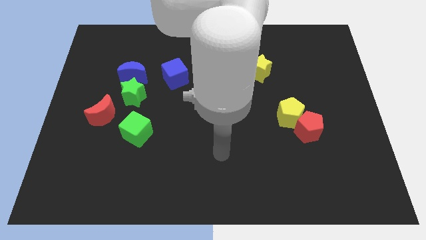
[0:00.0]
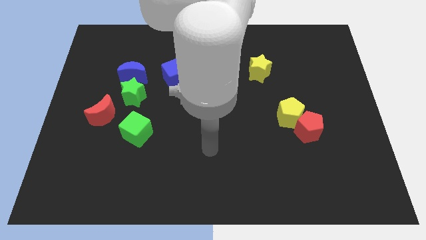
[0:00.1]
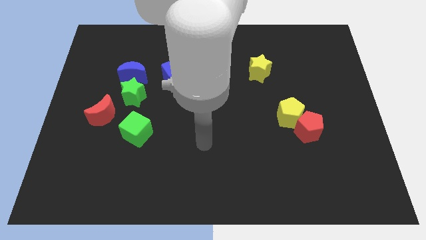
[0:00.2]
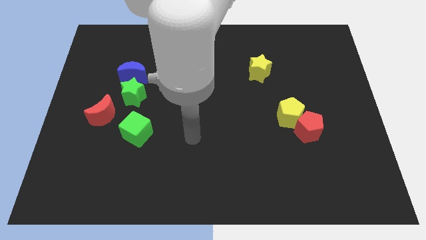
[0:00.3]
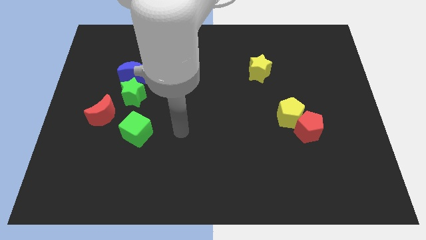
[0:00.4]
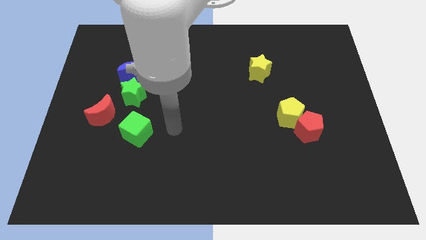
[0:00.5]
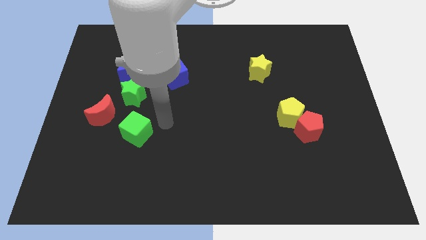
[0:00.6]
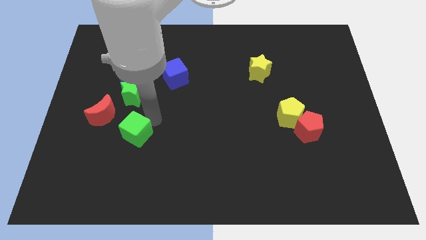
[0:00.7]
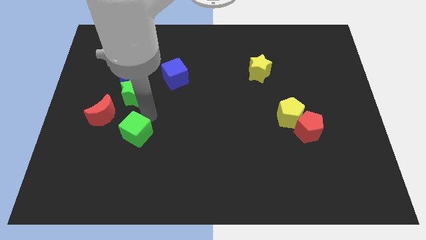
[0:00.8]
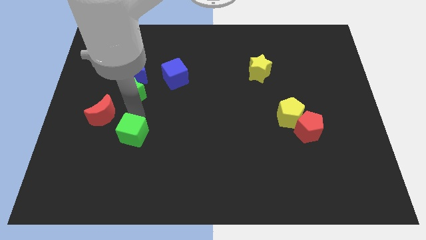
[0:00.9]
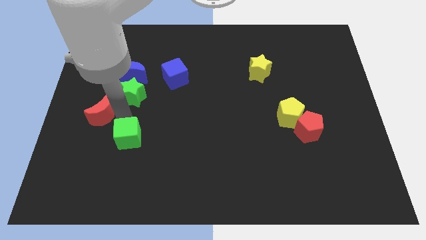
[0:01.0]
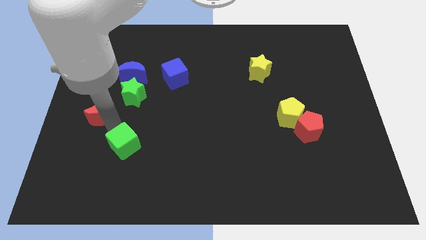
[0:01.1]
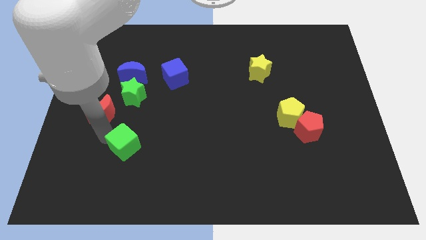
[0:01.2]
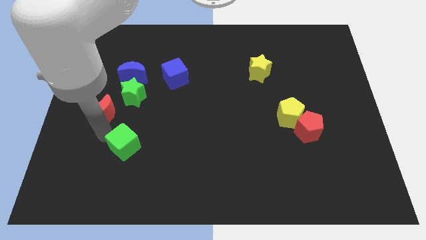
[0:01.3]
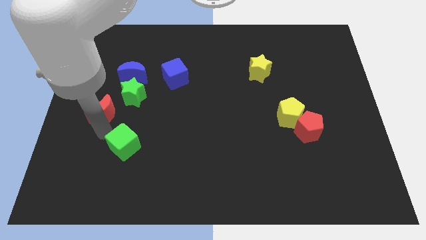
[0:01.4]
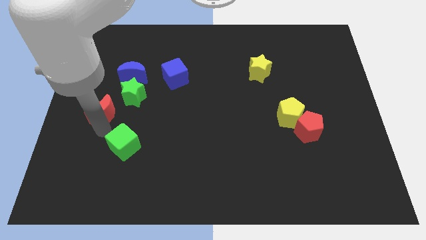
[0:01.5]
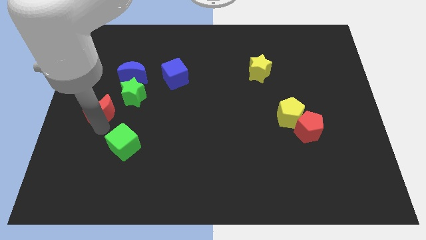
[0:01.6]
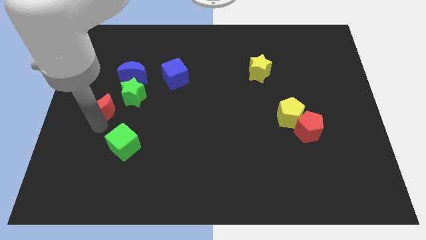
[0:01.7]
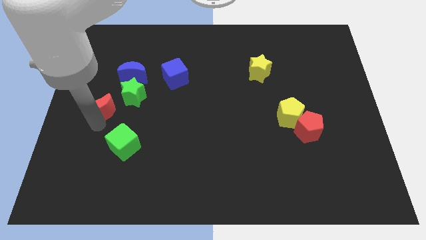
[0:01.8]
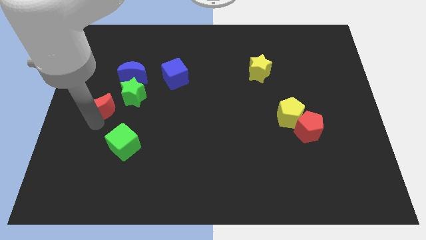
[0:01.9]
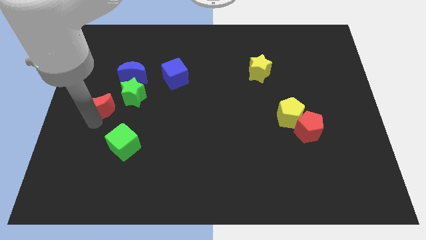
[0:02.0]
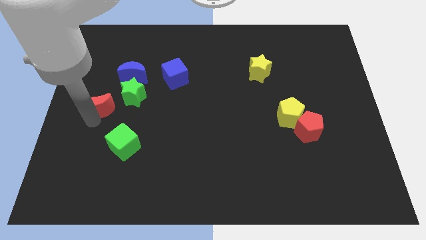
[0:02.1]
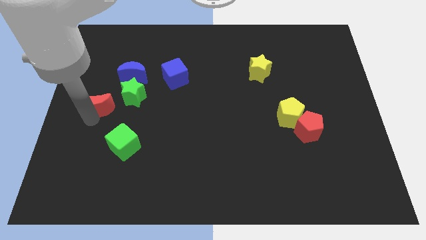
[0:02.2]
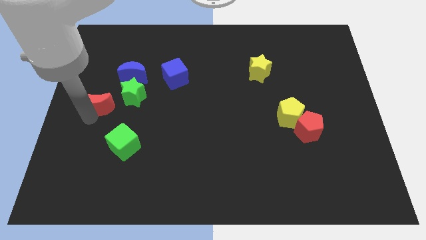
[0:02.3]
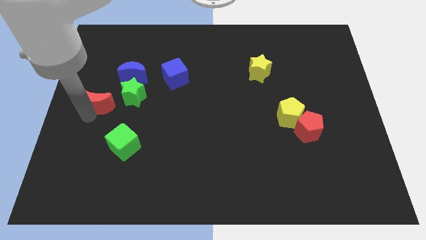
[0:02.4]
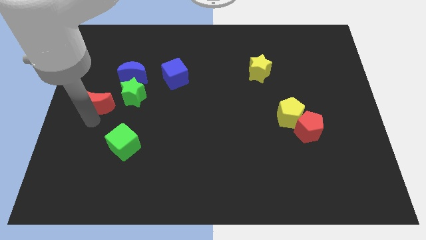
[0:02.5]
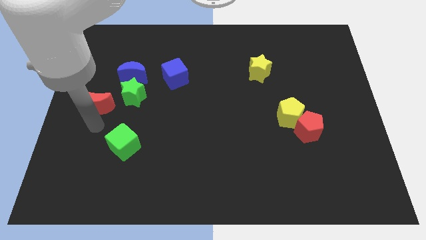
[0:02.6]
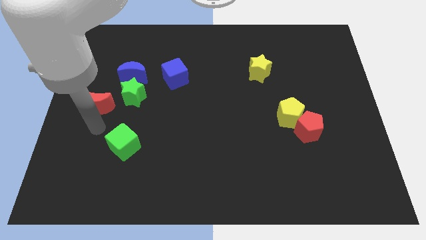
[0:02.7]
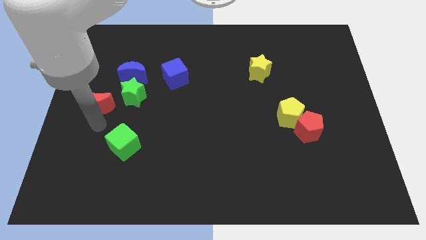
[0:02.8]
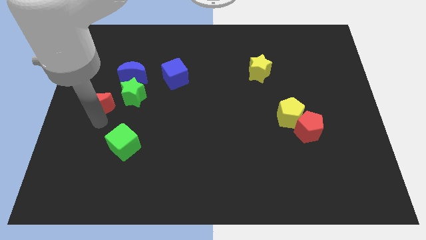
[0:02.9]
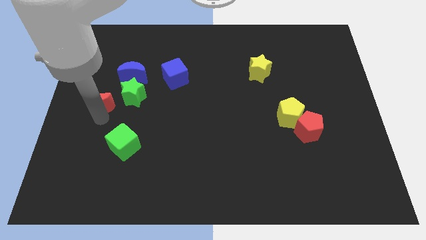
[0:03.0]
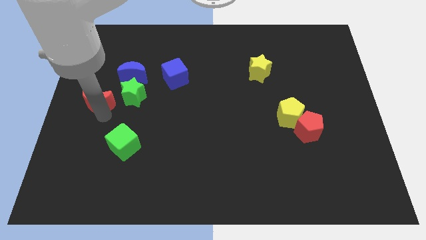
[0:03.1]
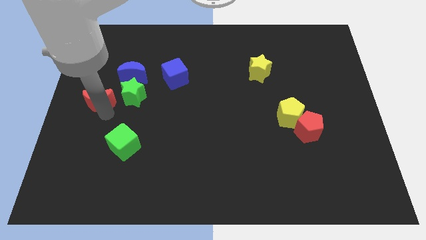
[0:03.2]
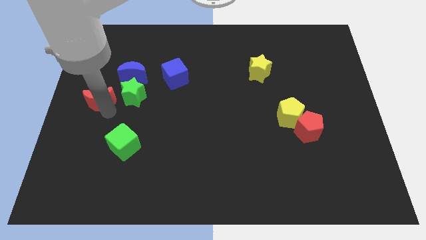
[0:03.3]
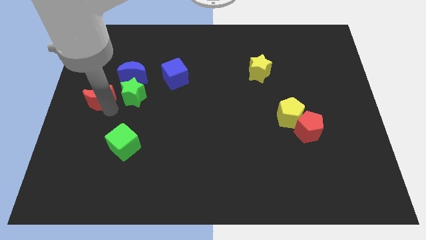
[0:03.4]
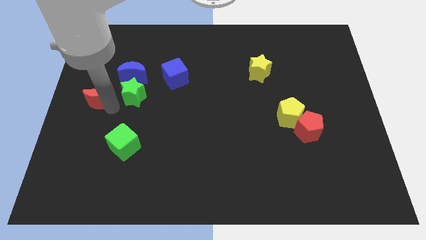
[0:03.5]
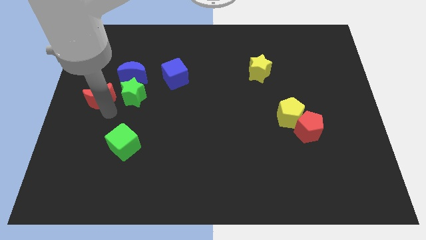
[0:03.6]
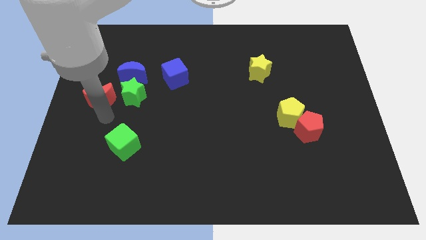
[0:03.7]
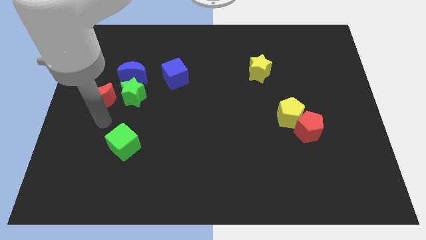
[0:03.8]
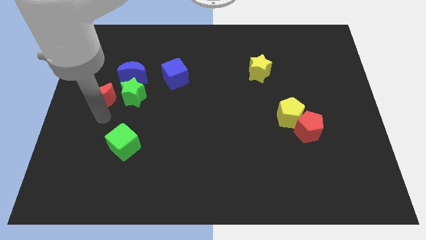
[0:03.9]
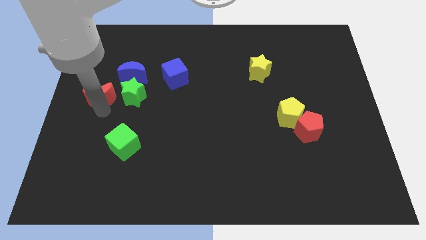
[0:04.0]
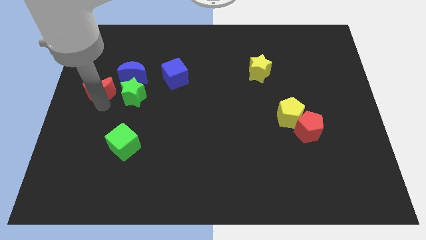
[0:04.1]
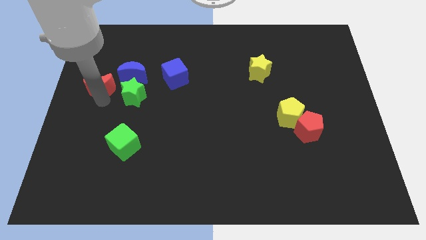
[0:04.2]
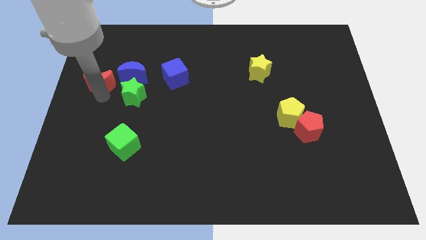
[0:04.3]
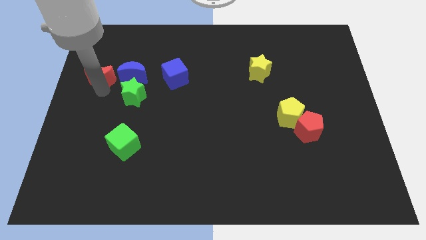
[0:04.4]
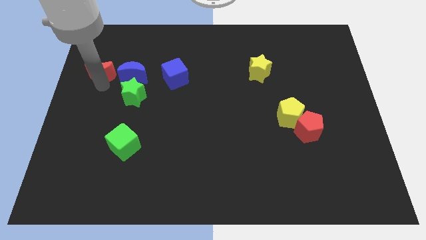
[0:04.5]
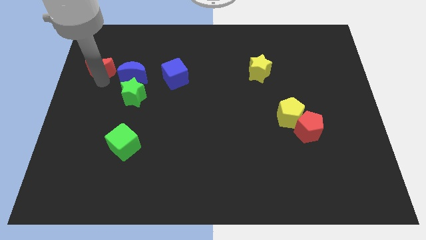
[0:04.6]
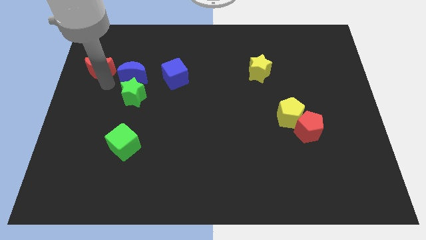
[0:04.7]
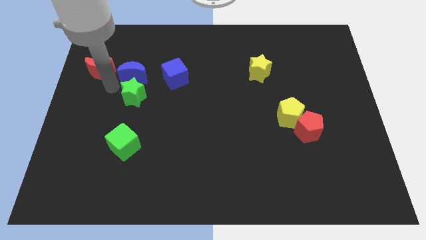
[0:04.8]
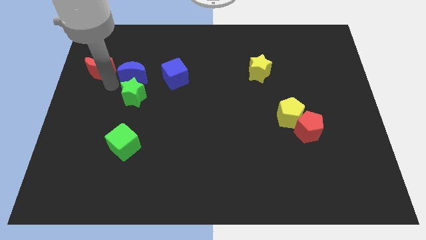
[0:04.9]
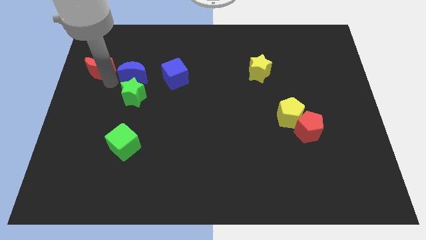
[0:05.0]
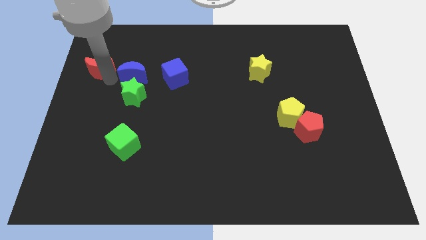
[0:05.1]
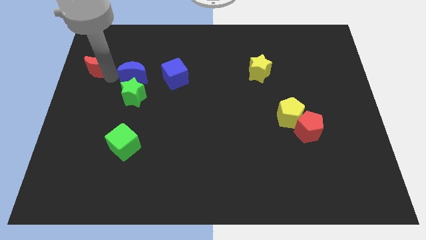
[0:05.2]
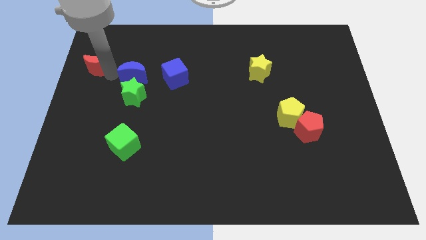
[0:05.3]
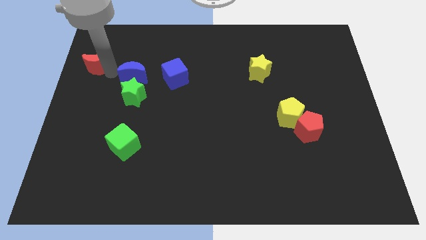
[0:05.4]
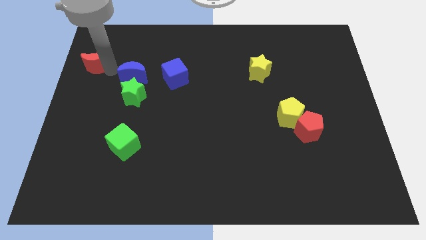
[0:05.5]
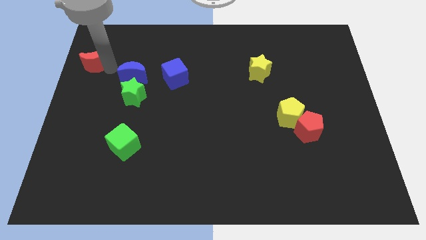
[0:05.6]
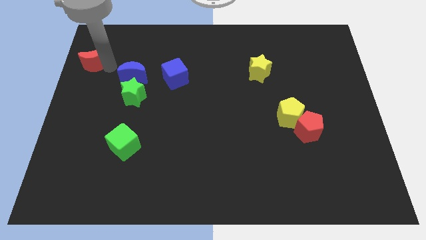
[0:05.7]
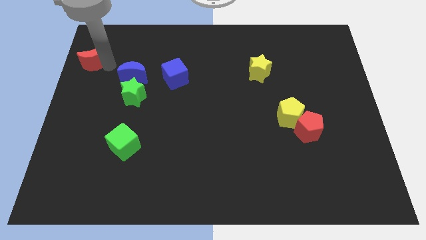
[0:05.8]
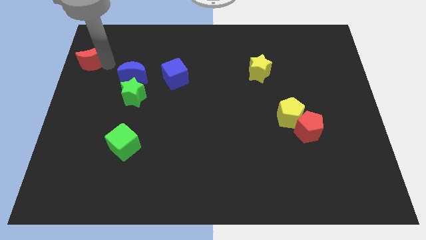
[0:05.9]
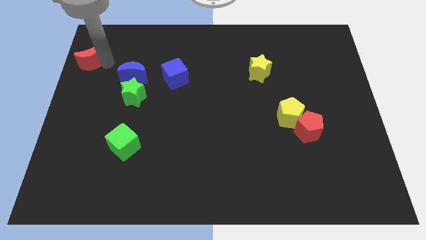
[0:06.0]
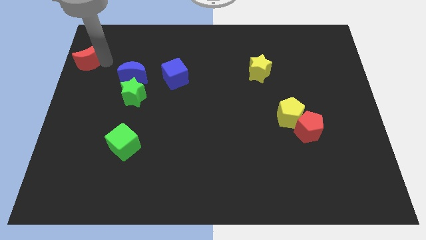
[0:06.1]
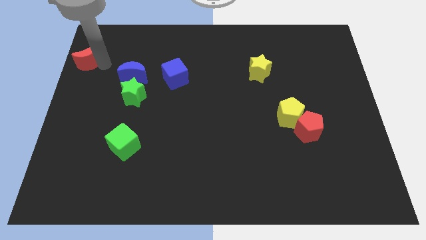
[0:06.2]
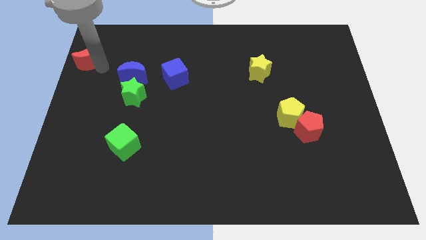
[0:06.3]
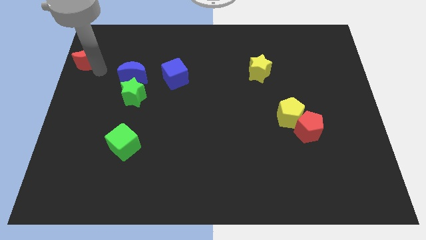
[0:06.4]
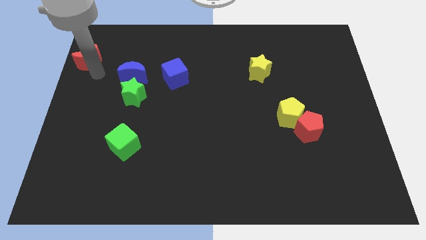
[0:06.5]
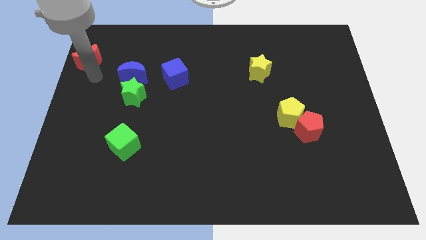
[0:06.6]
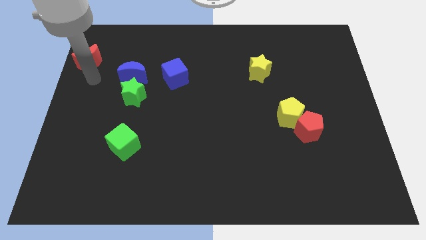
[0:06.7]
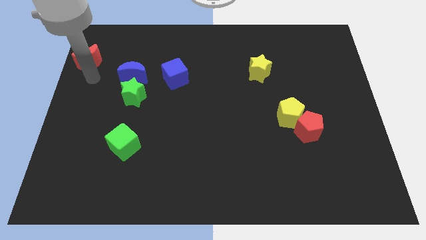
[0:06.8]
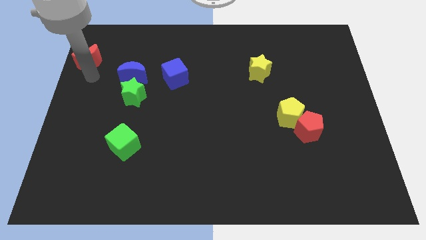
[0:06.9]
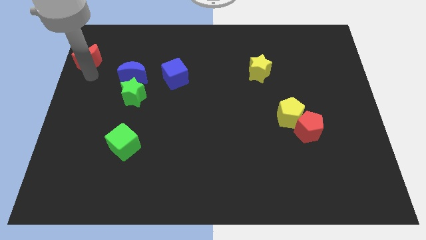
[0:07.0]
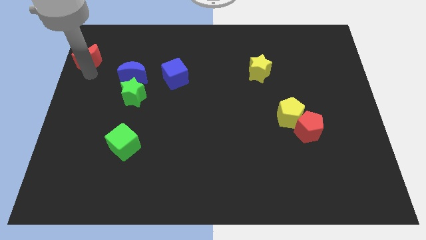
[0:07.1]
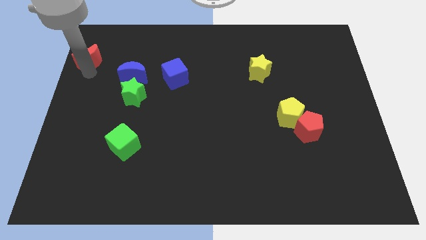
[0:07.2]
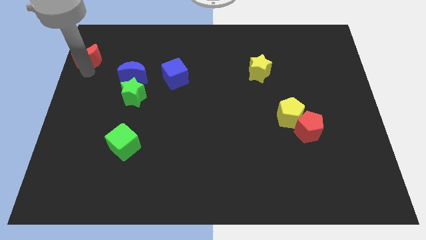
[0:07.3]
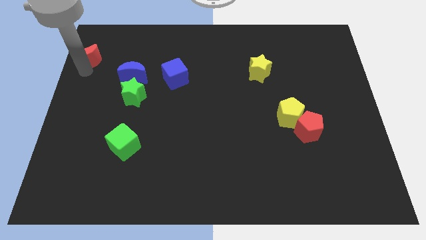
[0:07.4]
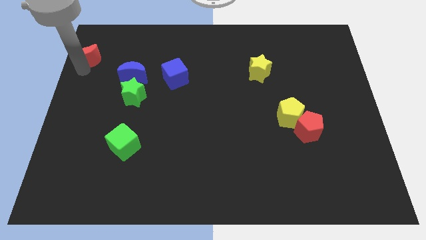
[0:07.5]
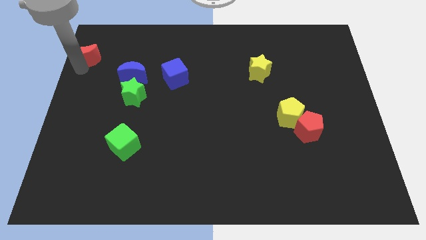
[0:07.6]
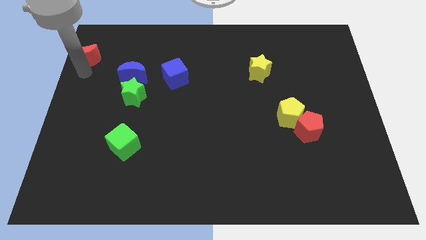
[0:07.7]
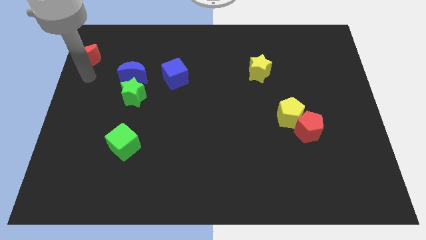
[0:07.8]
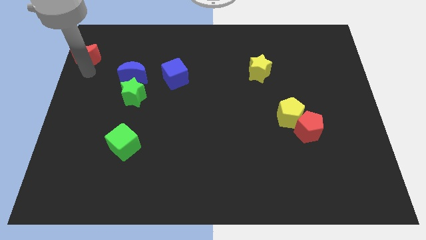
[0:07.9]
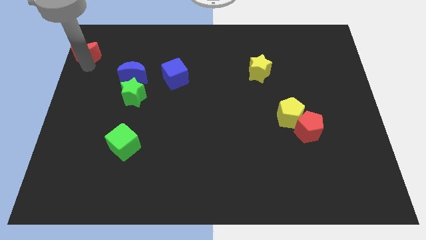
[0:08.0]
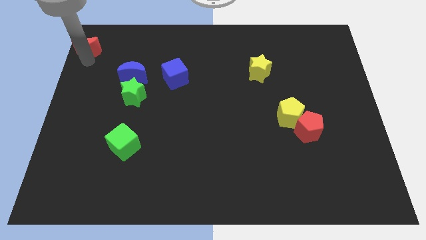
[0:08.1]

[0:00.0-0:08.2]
put the red moon to the top left corner
